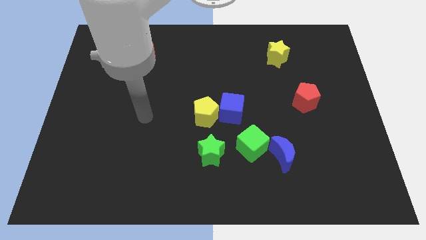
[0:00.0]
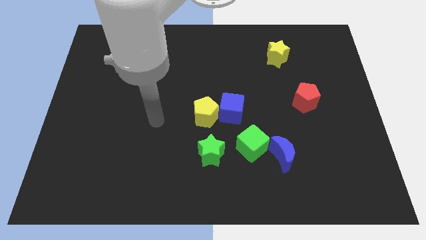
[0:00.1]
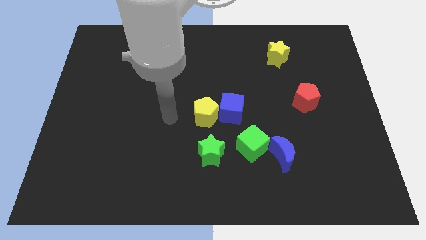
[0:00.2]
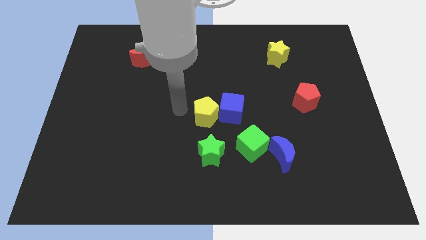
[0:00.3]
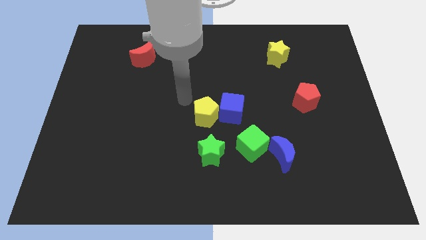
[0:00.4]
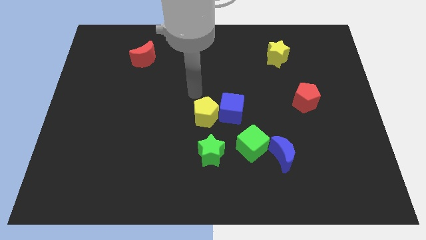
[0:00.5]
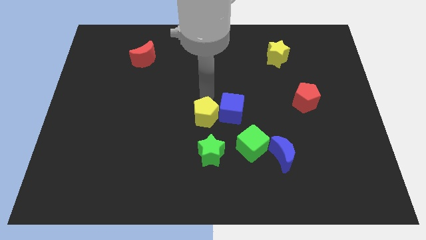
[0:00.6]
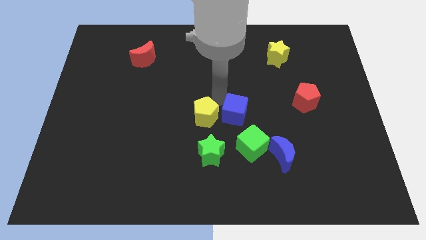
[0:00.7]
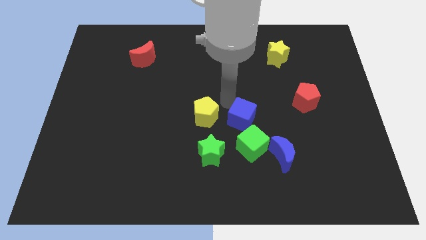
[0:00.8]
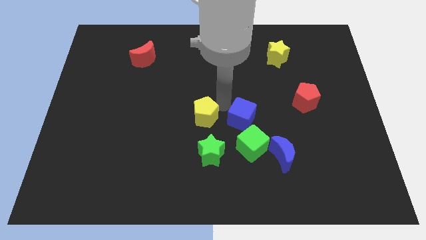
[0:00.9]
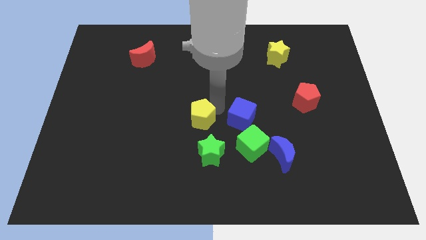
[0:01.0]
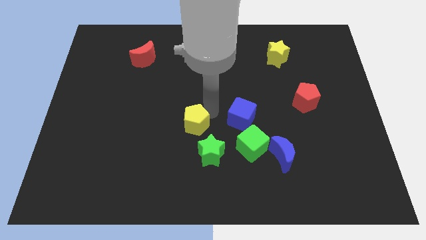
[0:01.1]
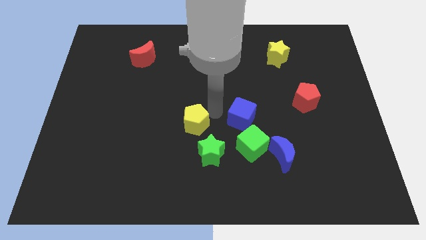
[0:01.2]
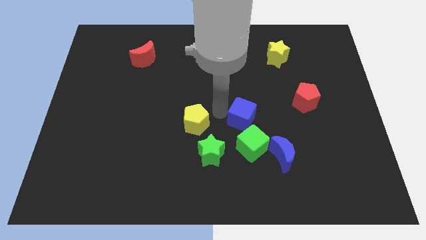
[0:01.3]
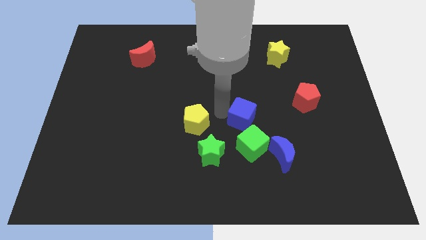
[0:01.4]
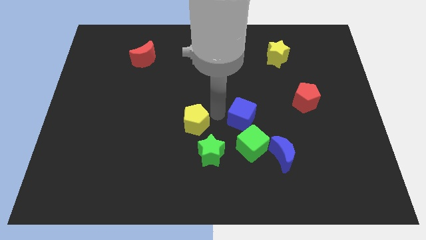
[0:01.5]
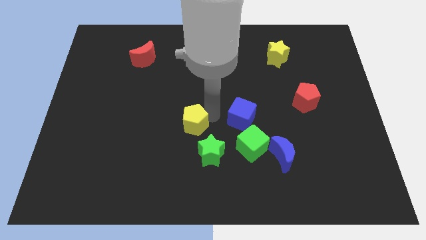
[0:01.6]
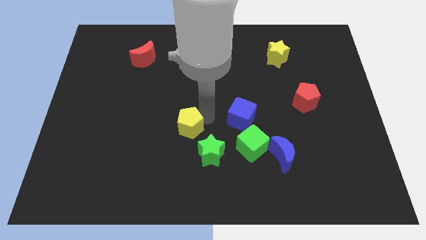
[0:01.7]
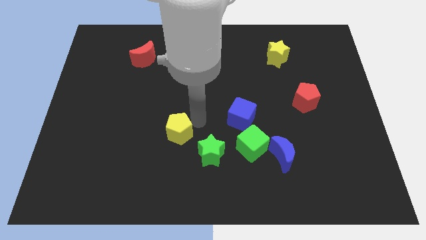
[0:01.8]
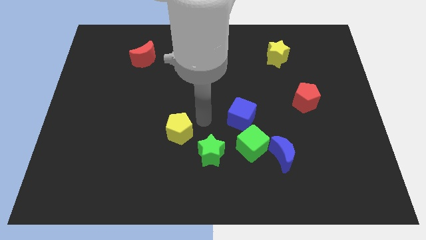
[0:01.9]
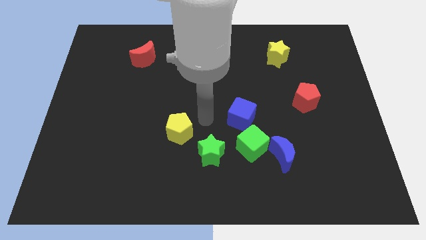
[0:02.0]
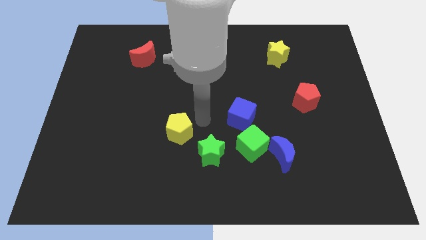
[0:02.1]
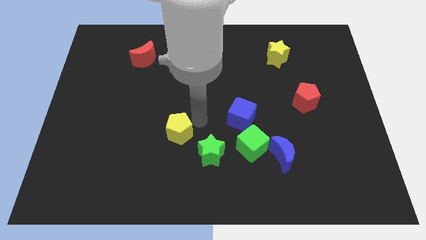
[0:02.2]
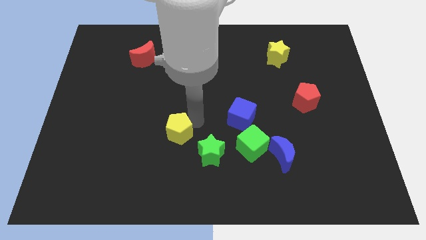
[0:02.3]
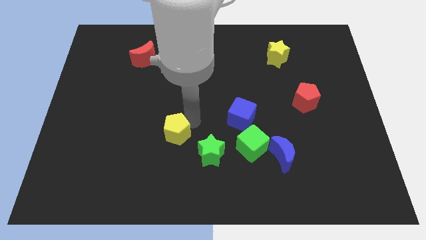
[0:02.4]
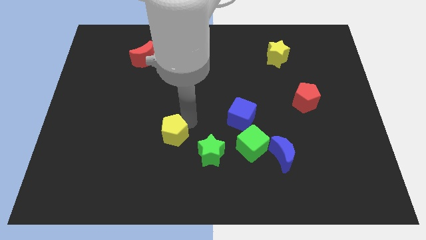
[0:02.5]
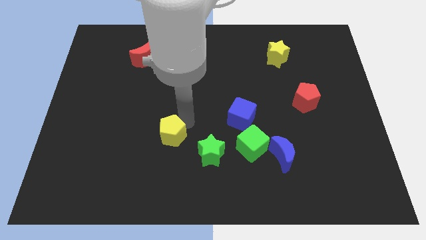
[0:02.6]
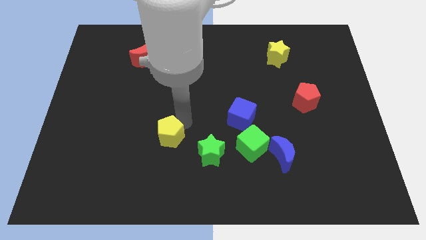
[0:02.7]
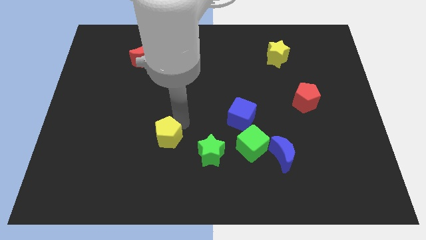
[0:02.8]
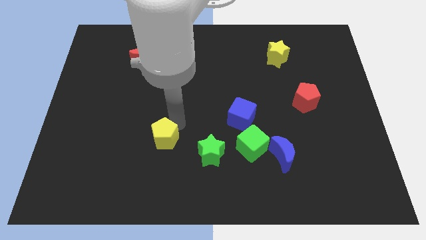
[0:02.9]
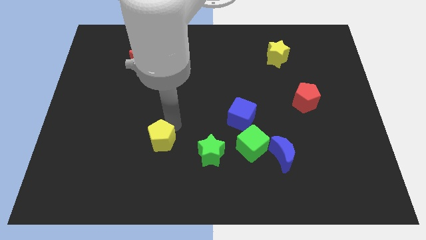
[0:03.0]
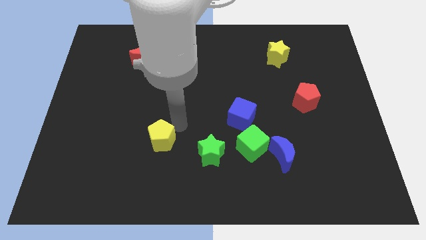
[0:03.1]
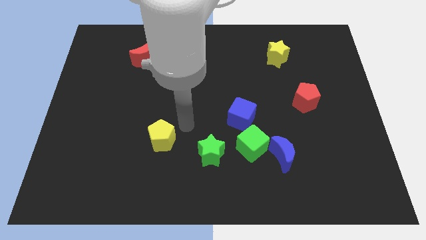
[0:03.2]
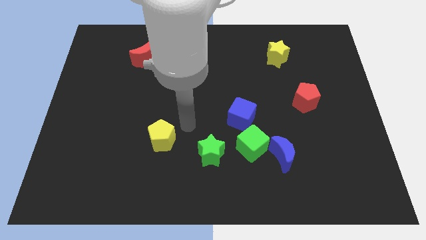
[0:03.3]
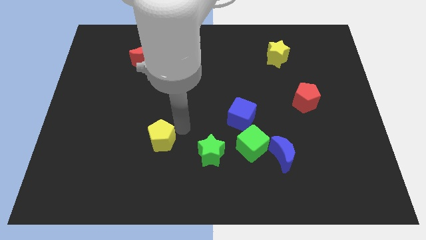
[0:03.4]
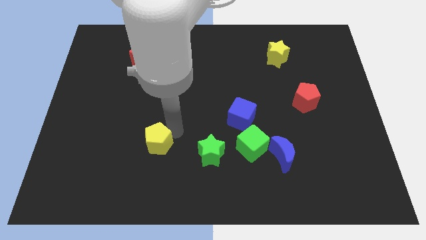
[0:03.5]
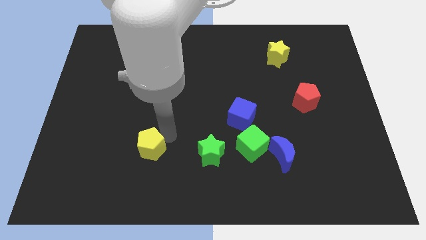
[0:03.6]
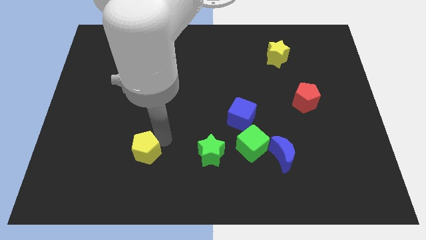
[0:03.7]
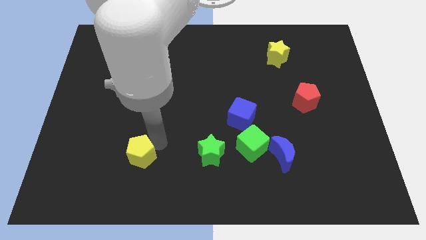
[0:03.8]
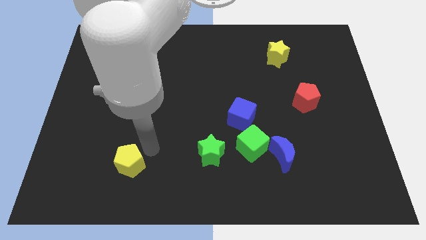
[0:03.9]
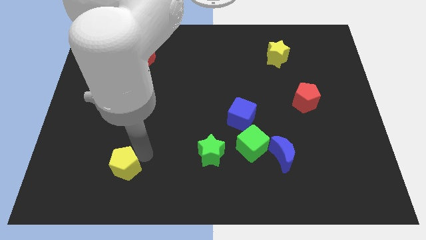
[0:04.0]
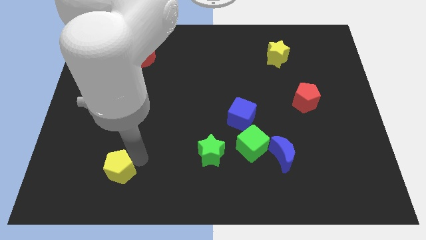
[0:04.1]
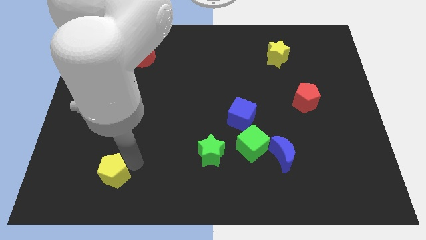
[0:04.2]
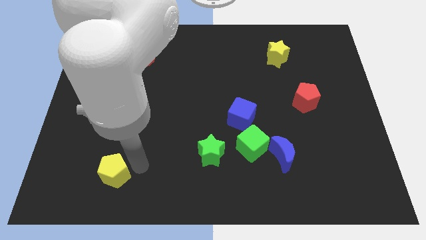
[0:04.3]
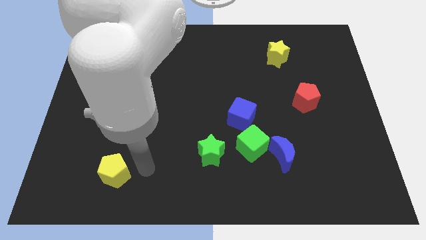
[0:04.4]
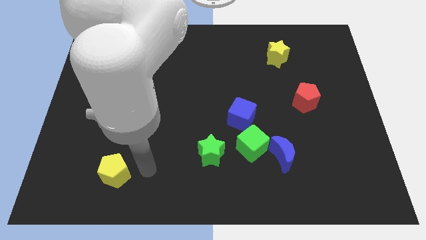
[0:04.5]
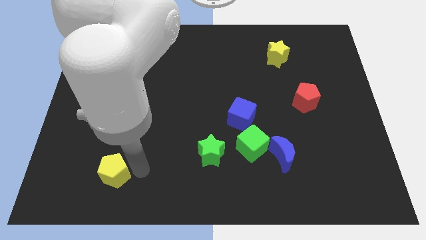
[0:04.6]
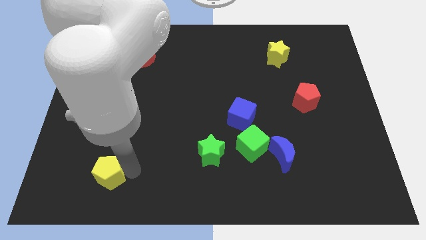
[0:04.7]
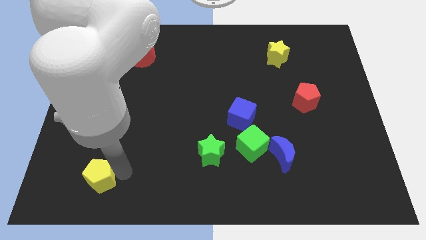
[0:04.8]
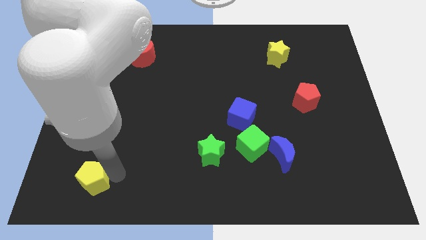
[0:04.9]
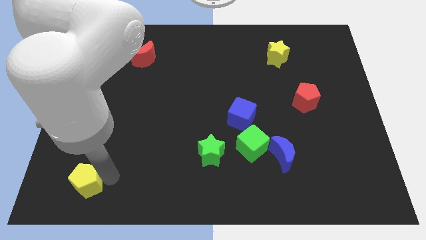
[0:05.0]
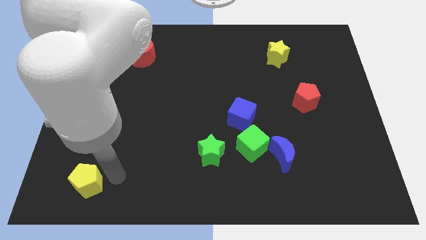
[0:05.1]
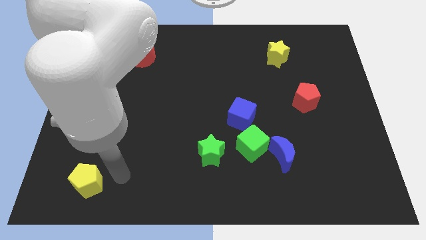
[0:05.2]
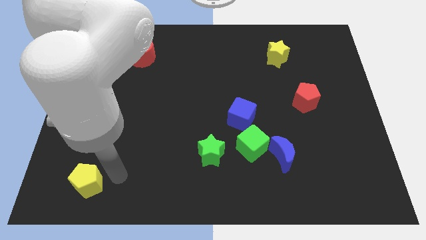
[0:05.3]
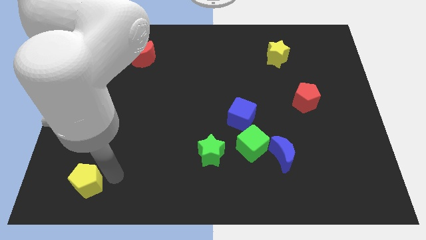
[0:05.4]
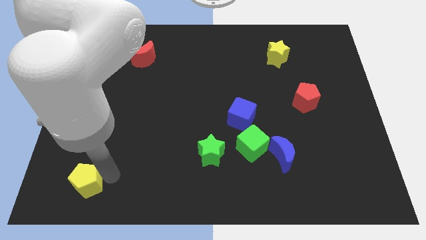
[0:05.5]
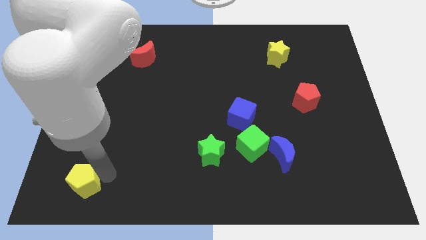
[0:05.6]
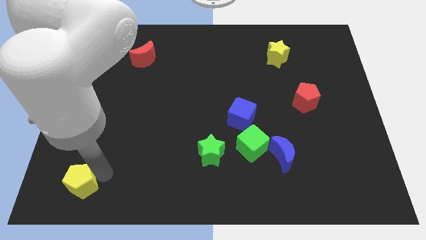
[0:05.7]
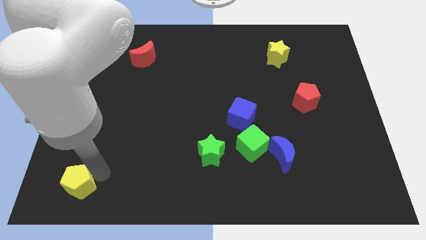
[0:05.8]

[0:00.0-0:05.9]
put the yellow pentagon to the lower left corner
